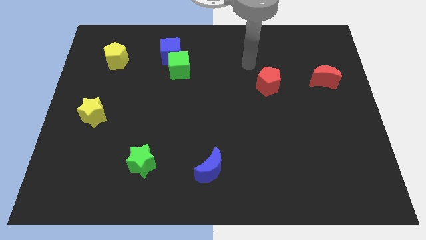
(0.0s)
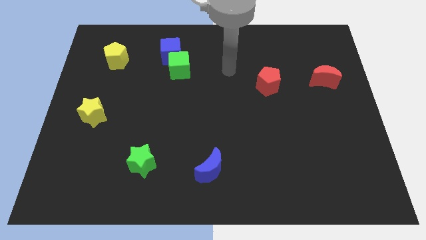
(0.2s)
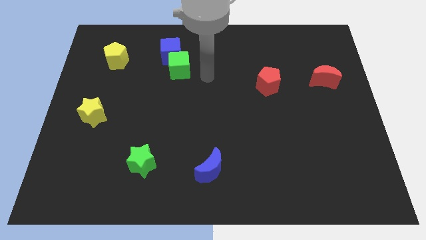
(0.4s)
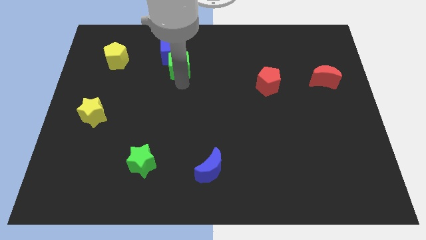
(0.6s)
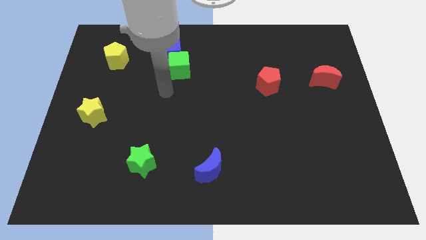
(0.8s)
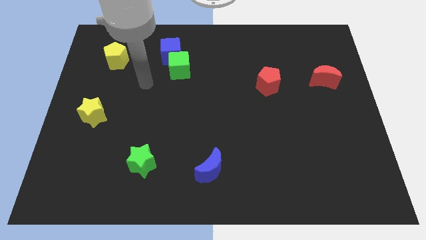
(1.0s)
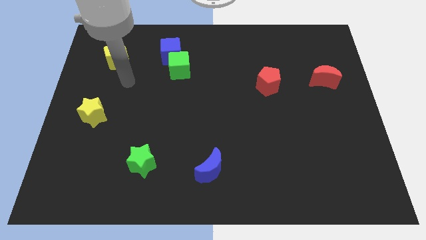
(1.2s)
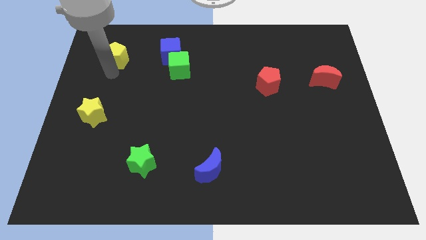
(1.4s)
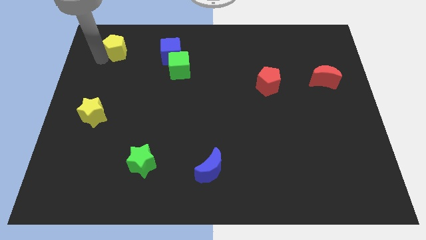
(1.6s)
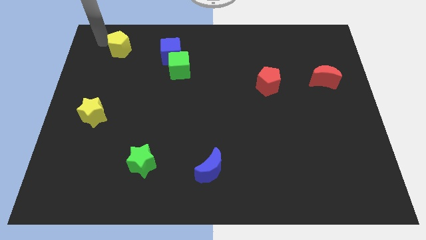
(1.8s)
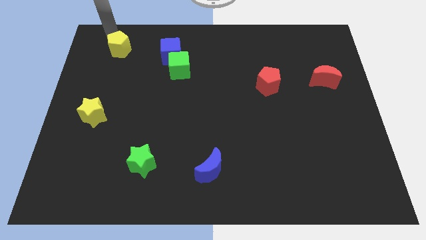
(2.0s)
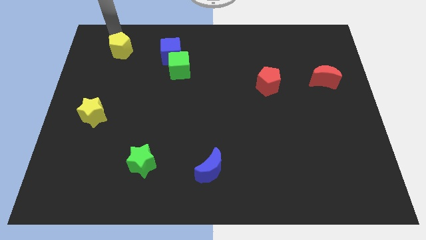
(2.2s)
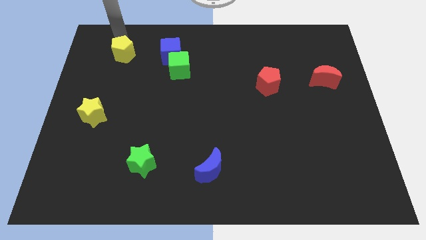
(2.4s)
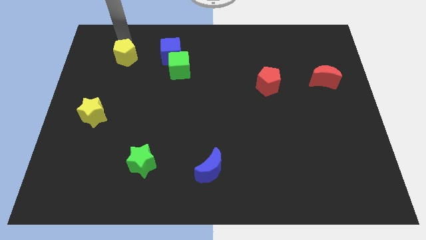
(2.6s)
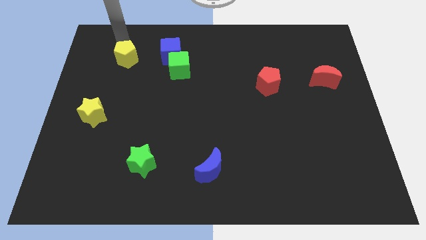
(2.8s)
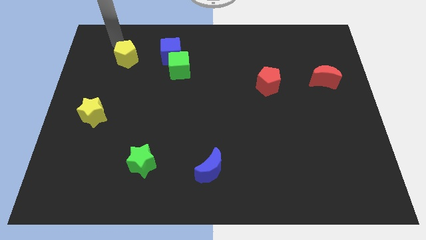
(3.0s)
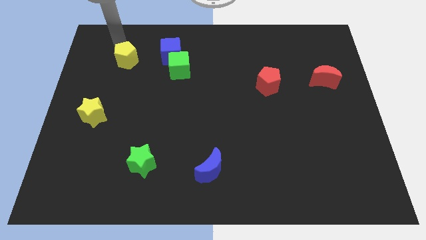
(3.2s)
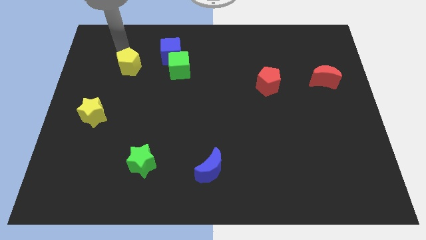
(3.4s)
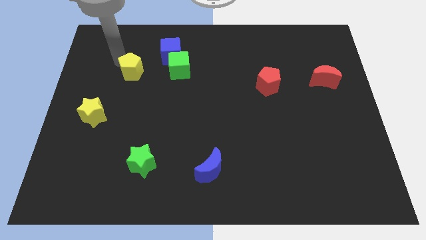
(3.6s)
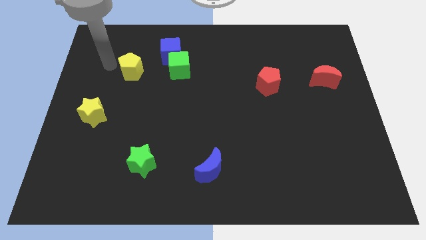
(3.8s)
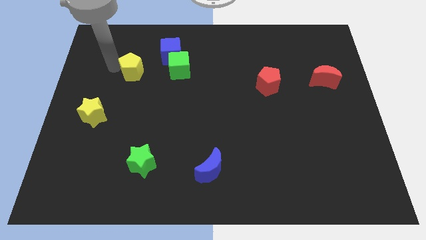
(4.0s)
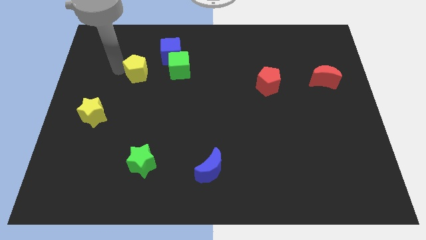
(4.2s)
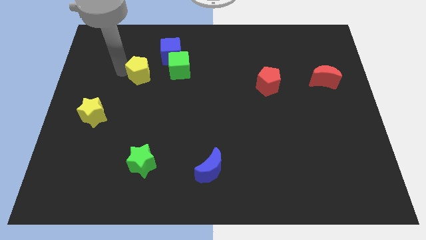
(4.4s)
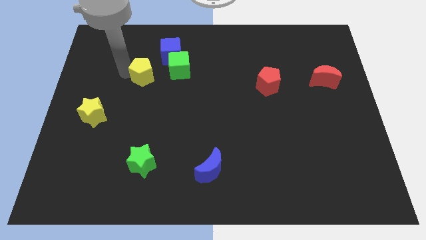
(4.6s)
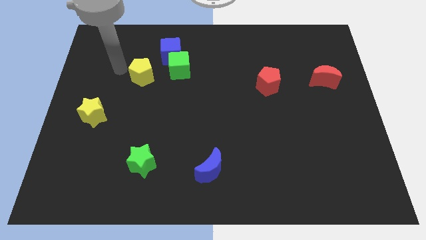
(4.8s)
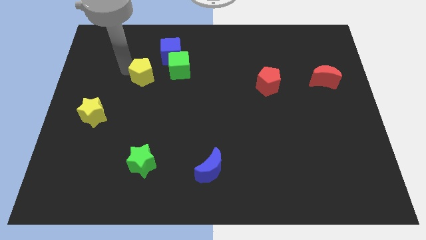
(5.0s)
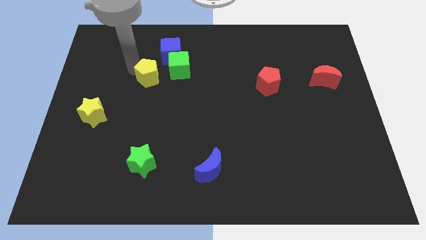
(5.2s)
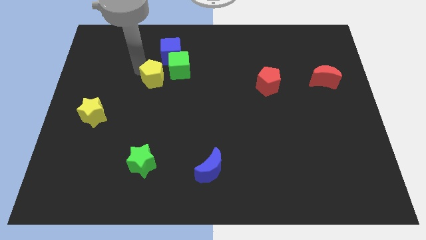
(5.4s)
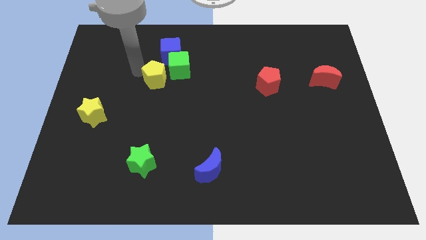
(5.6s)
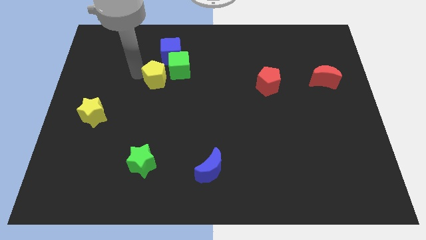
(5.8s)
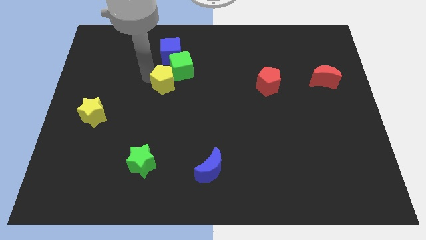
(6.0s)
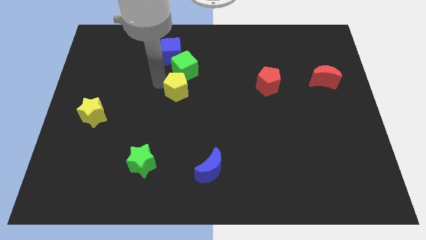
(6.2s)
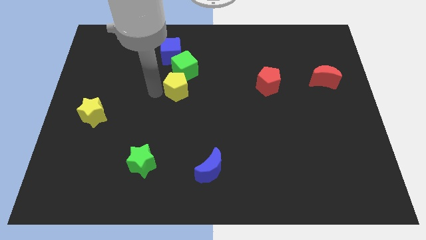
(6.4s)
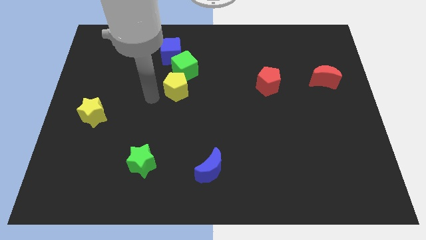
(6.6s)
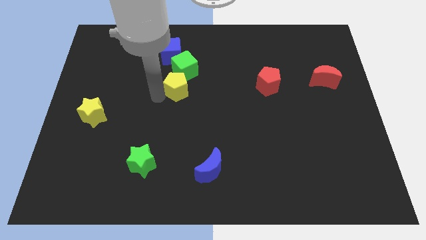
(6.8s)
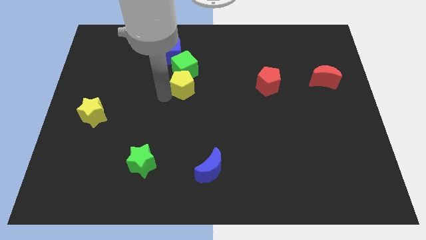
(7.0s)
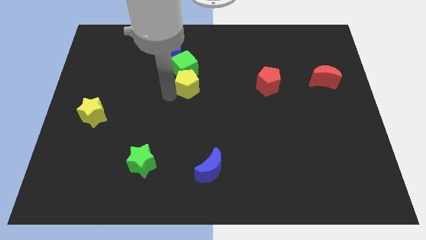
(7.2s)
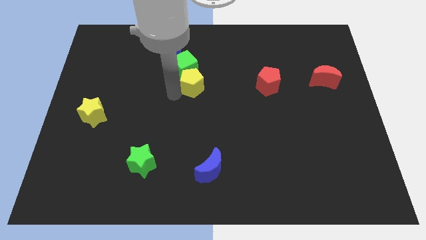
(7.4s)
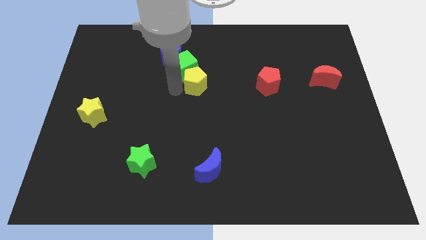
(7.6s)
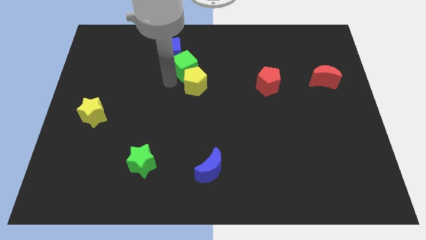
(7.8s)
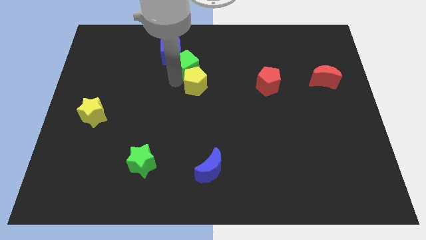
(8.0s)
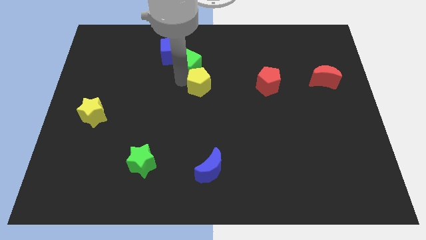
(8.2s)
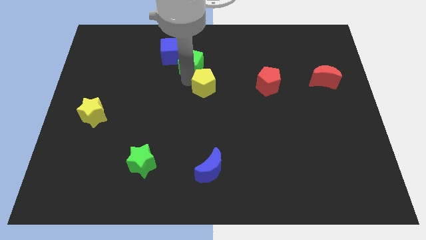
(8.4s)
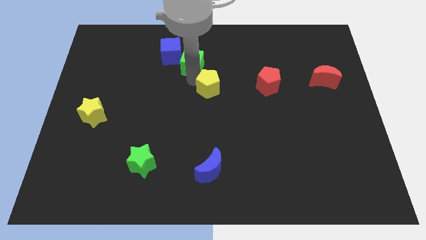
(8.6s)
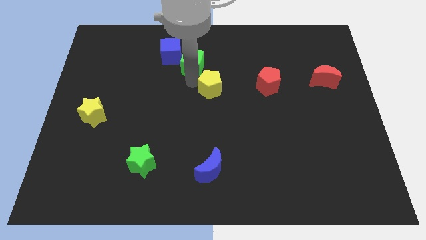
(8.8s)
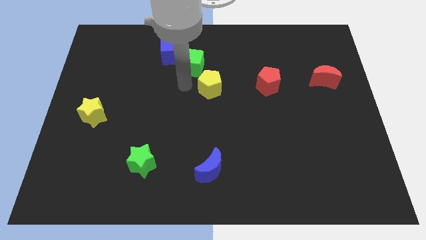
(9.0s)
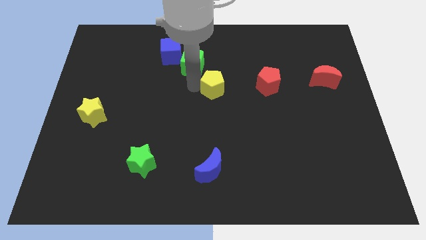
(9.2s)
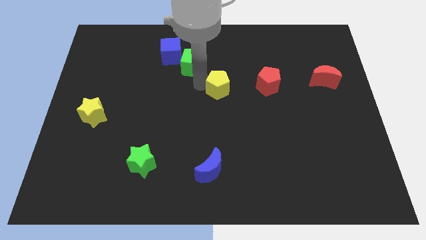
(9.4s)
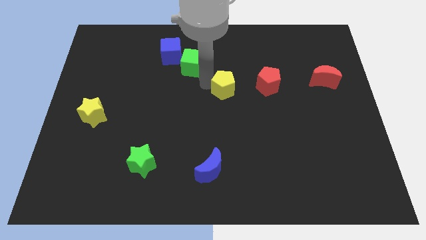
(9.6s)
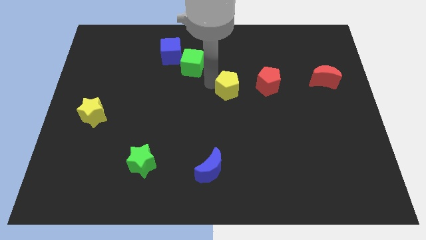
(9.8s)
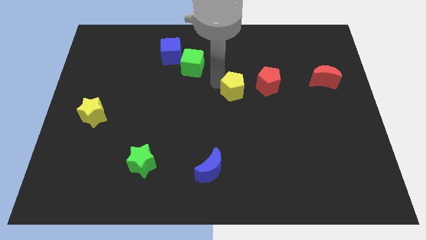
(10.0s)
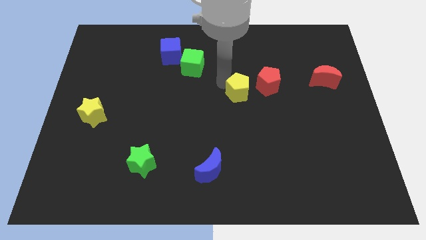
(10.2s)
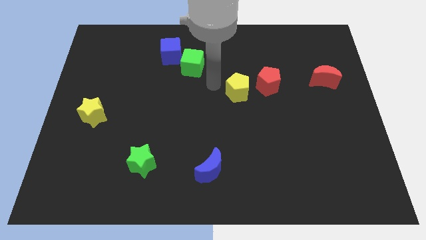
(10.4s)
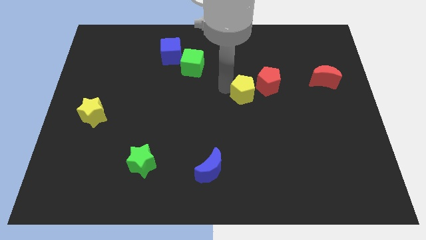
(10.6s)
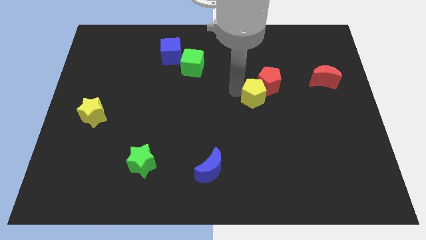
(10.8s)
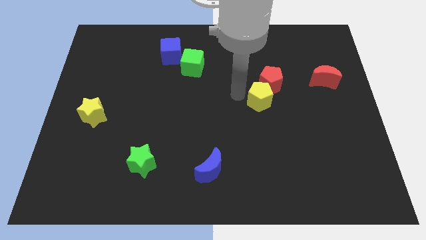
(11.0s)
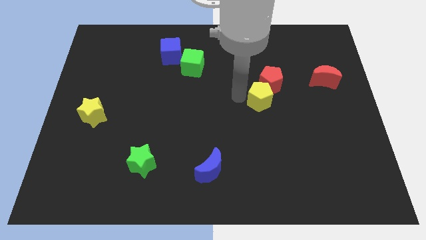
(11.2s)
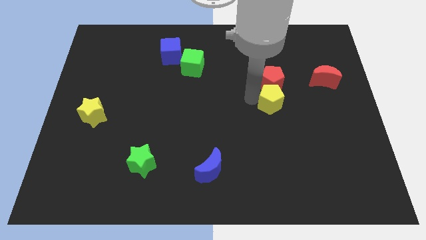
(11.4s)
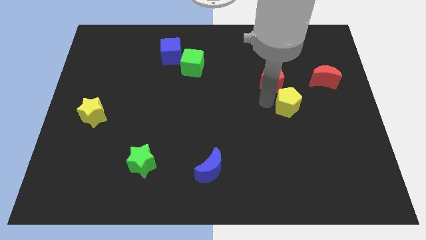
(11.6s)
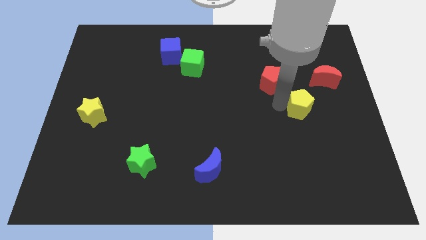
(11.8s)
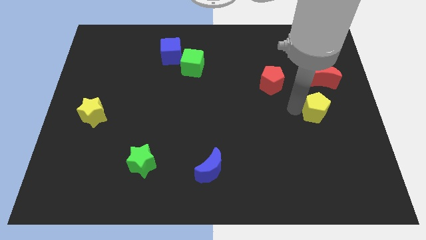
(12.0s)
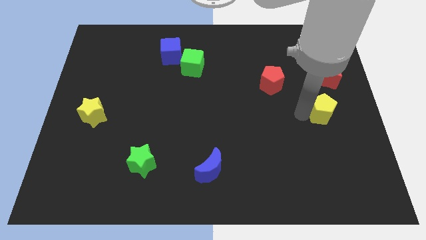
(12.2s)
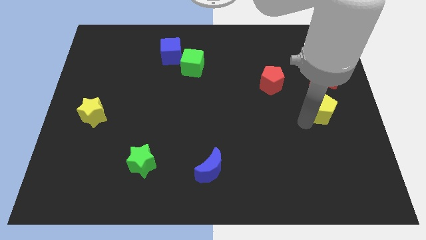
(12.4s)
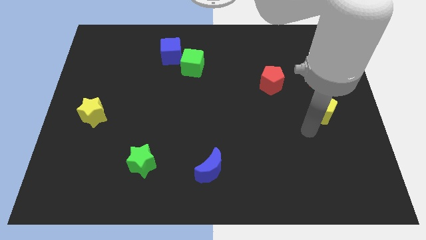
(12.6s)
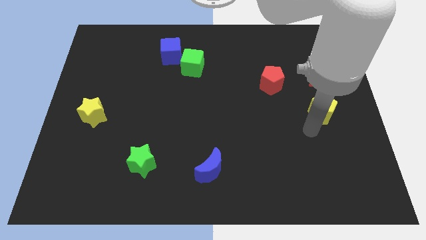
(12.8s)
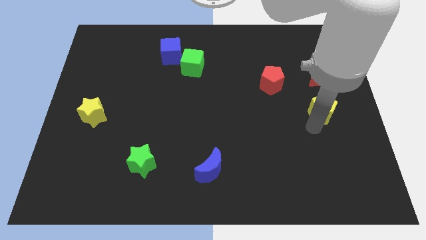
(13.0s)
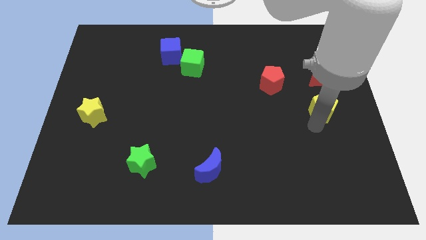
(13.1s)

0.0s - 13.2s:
put the yellow pentagon to the right side of the board
